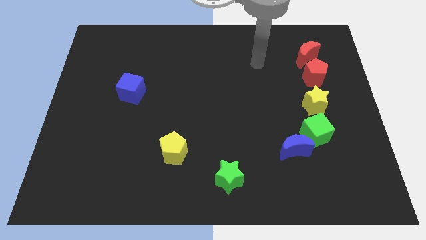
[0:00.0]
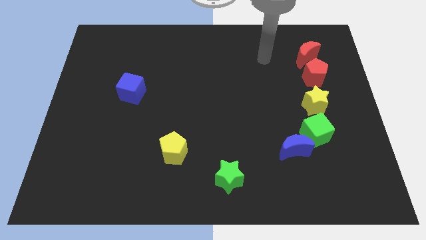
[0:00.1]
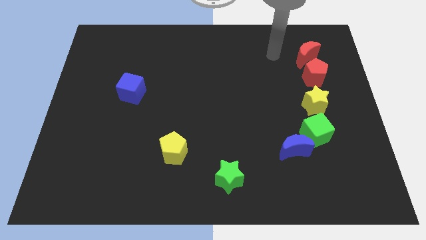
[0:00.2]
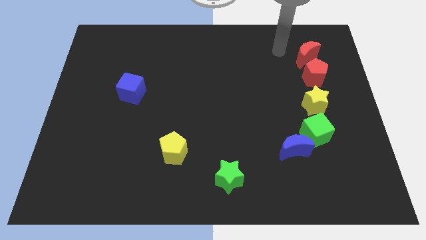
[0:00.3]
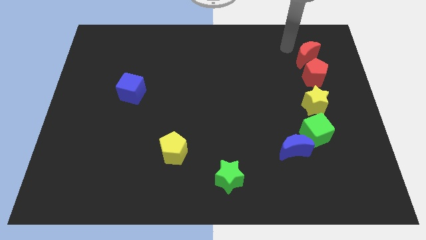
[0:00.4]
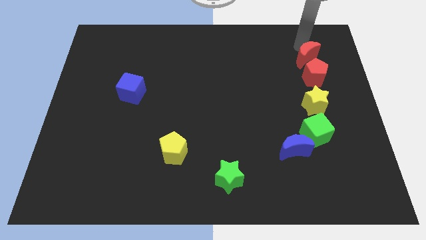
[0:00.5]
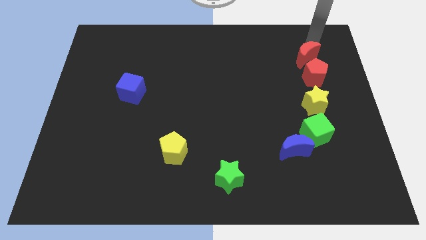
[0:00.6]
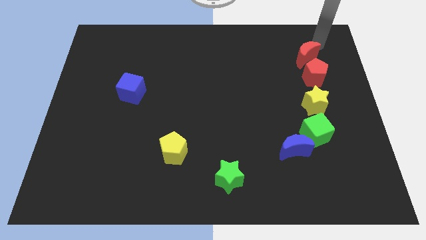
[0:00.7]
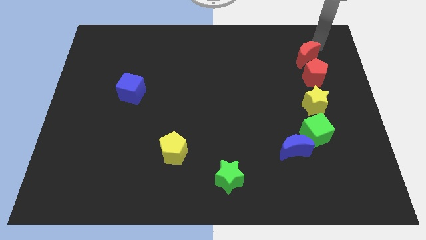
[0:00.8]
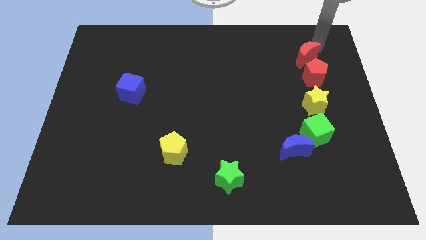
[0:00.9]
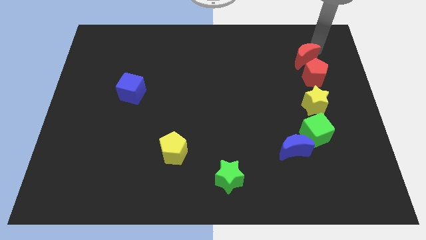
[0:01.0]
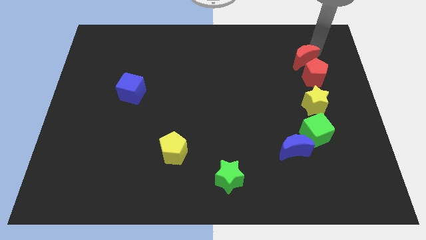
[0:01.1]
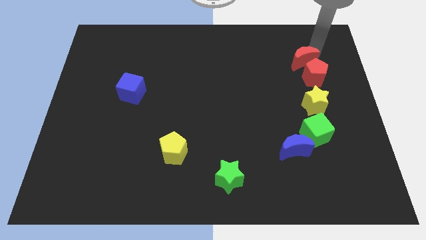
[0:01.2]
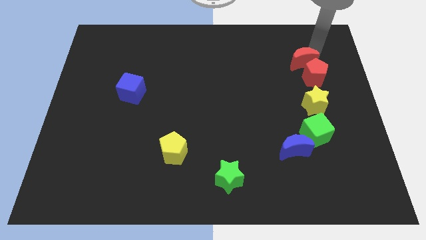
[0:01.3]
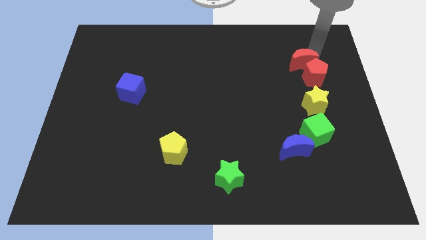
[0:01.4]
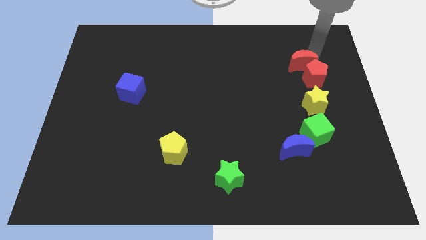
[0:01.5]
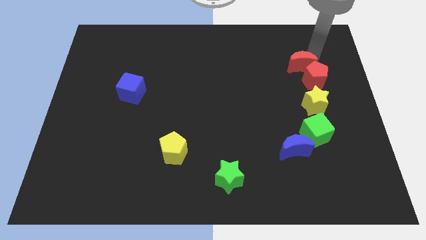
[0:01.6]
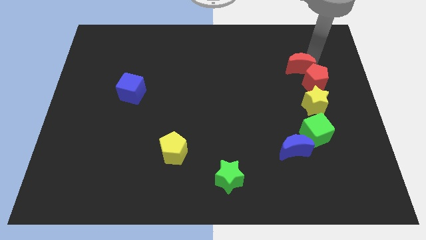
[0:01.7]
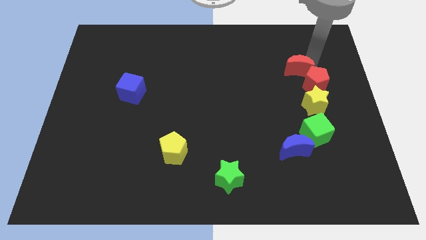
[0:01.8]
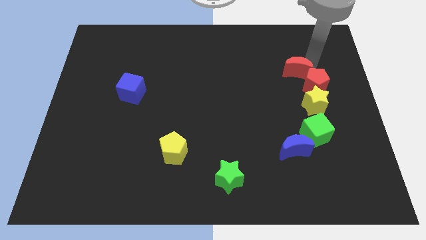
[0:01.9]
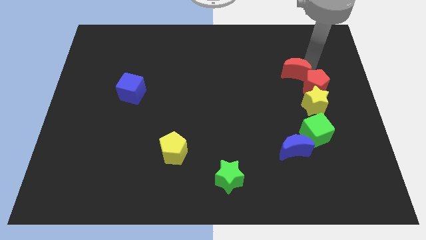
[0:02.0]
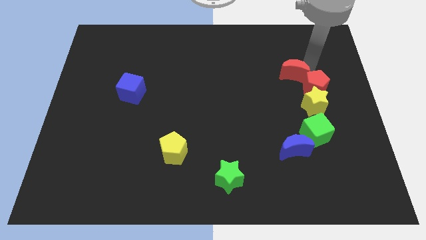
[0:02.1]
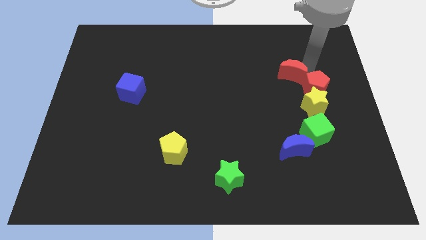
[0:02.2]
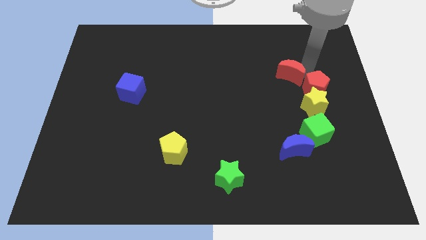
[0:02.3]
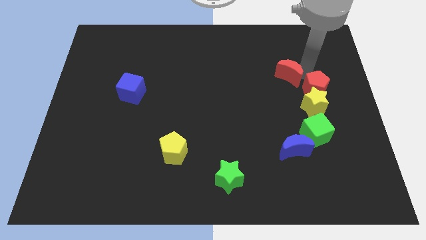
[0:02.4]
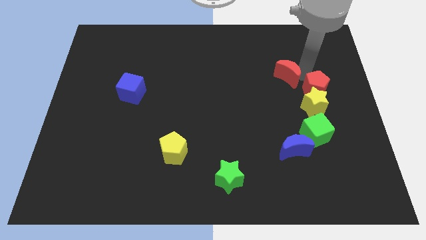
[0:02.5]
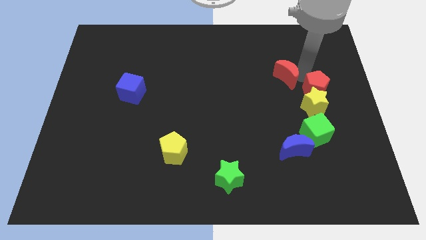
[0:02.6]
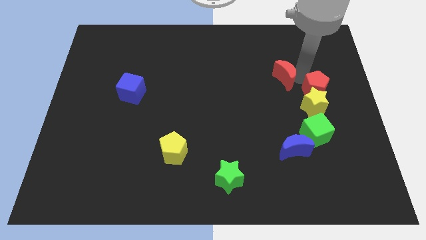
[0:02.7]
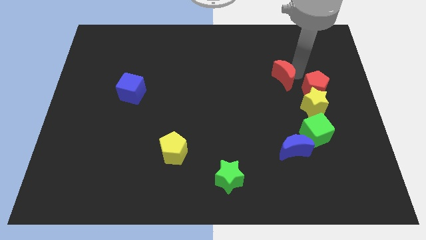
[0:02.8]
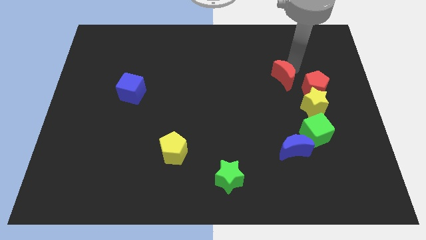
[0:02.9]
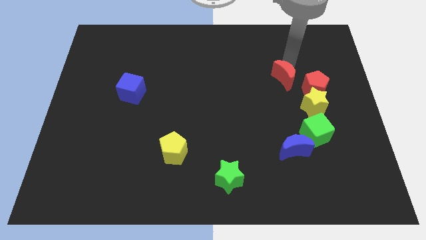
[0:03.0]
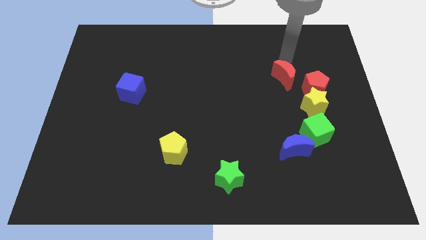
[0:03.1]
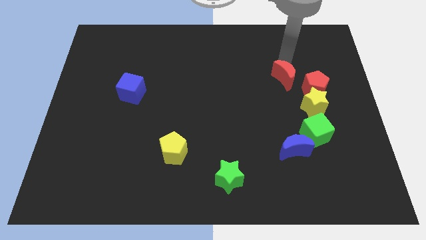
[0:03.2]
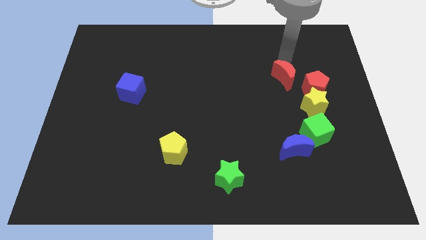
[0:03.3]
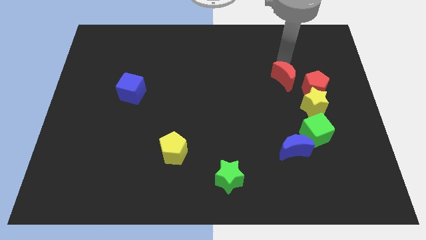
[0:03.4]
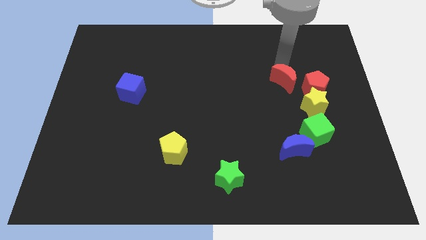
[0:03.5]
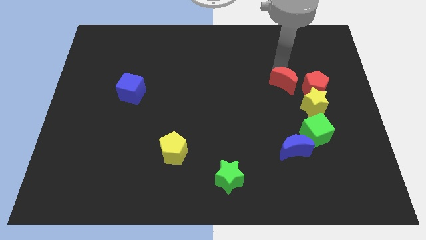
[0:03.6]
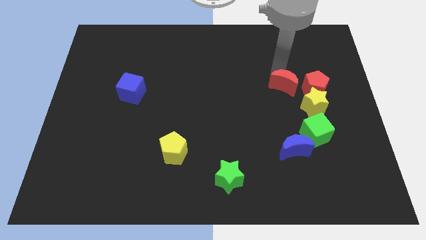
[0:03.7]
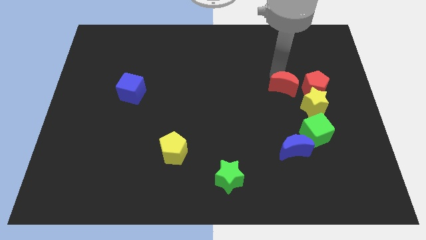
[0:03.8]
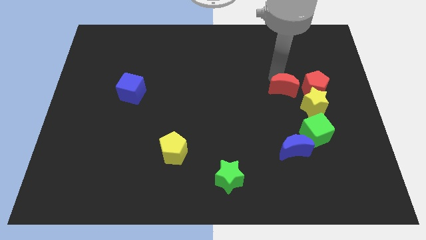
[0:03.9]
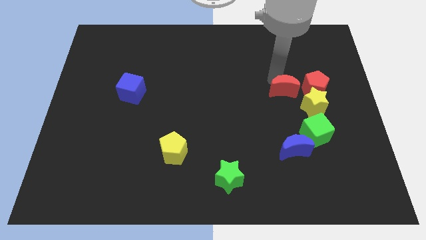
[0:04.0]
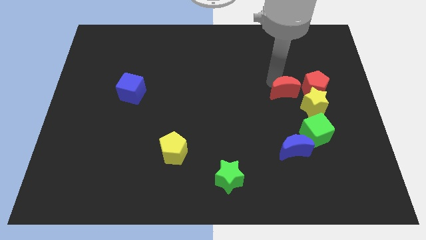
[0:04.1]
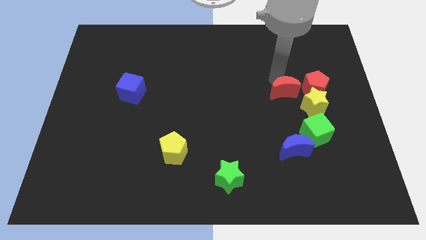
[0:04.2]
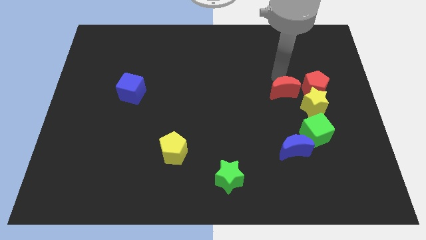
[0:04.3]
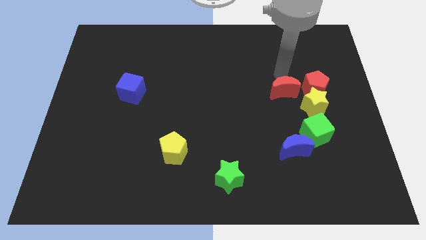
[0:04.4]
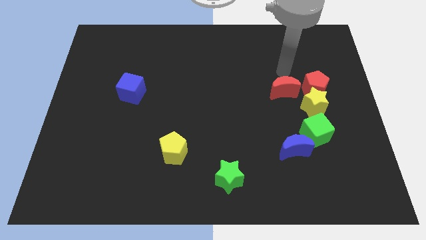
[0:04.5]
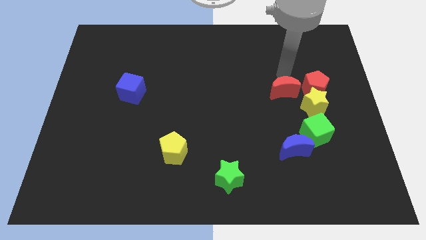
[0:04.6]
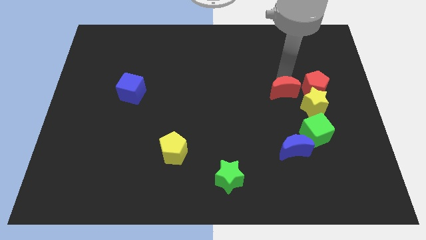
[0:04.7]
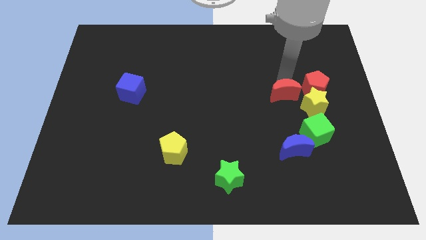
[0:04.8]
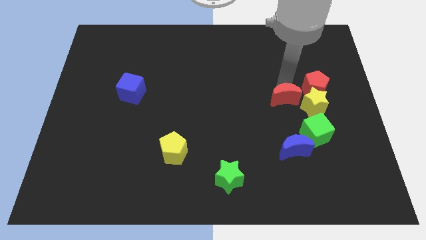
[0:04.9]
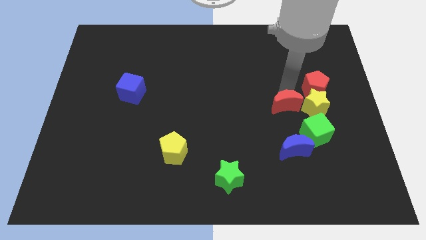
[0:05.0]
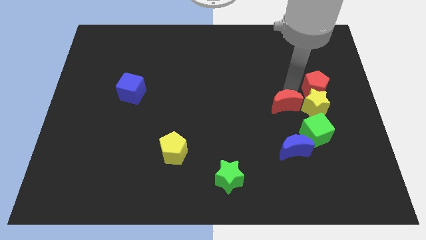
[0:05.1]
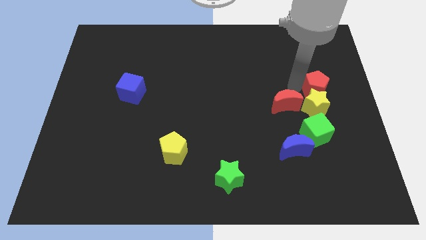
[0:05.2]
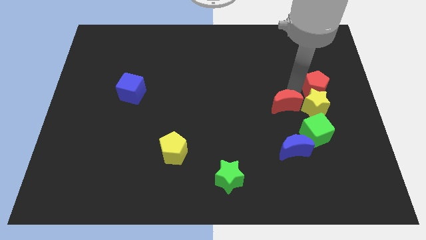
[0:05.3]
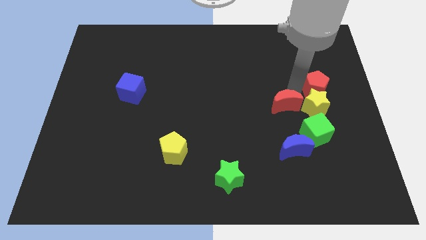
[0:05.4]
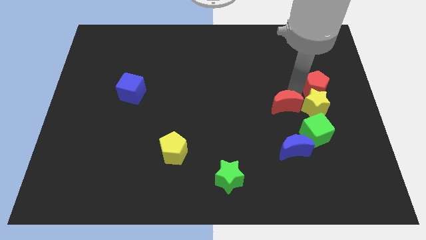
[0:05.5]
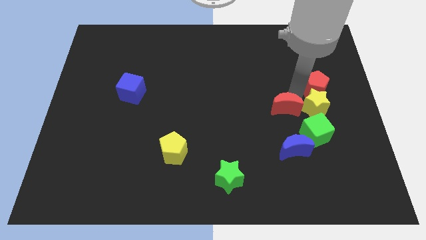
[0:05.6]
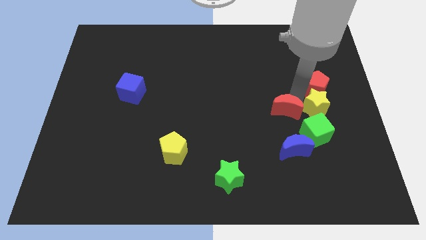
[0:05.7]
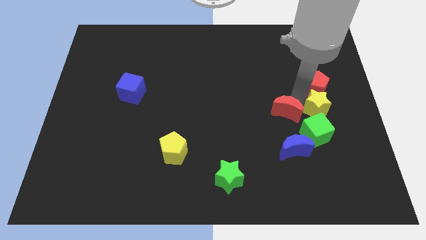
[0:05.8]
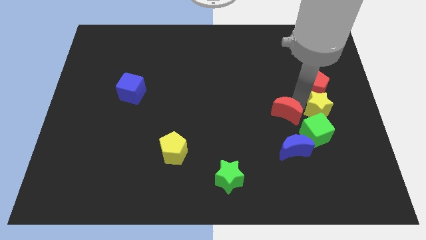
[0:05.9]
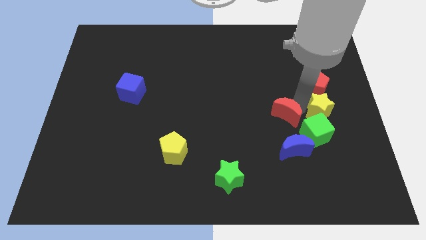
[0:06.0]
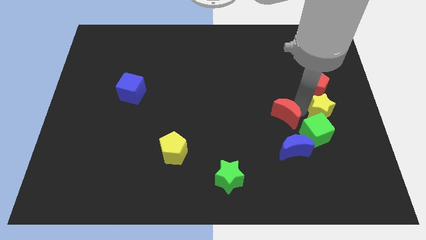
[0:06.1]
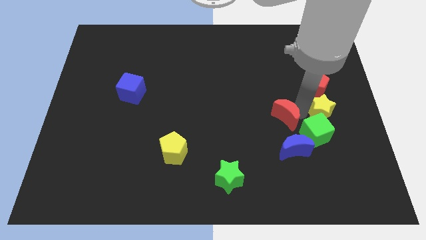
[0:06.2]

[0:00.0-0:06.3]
move the red moon left of the green cube

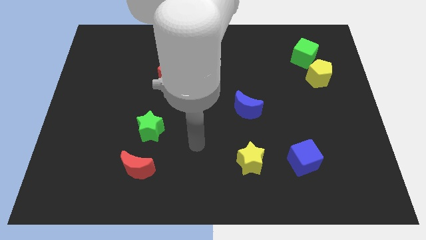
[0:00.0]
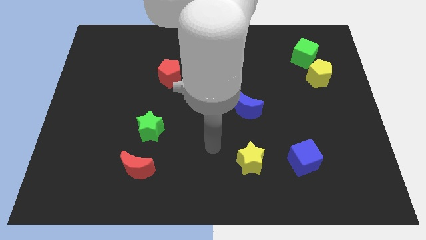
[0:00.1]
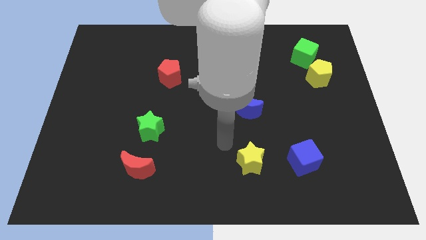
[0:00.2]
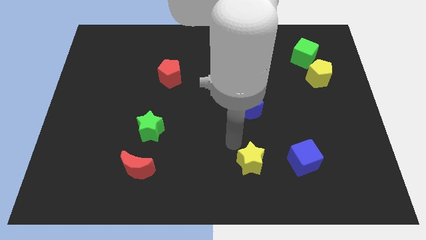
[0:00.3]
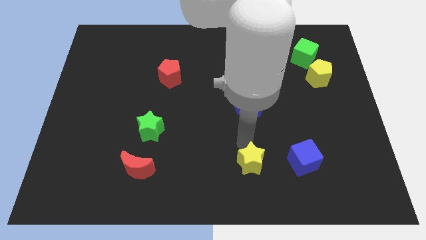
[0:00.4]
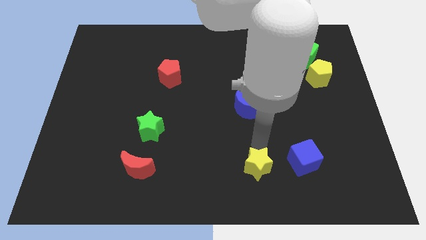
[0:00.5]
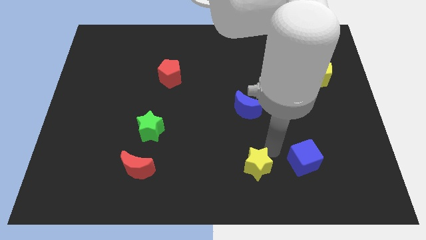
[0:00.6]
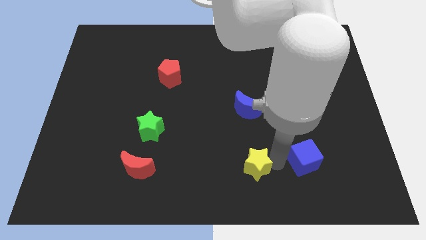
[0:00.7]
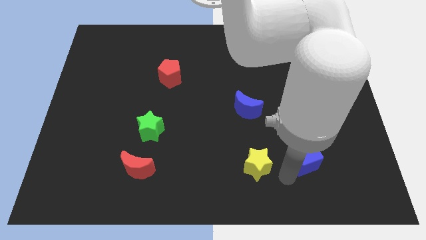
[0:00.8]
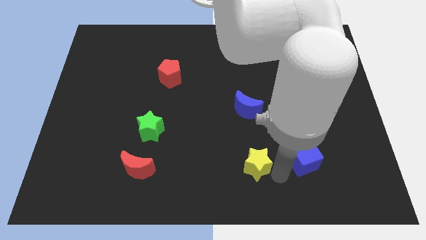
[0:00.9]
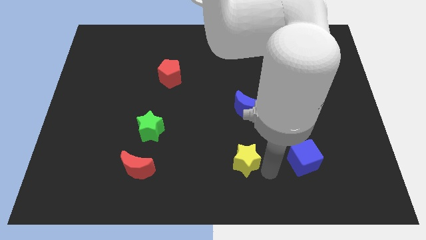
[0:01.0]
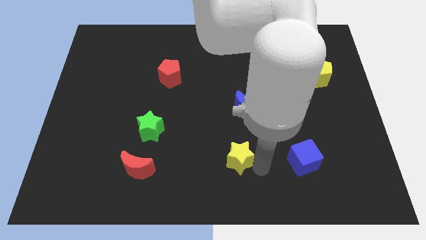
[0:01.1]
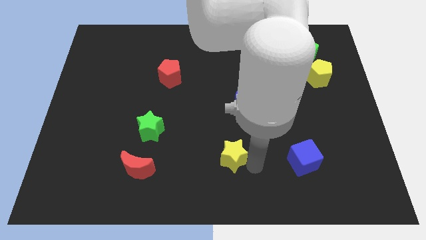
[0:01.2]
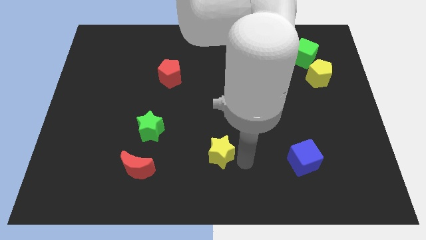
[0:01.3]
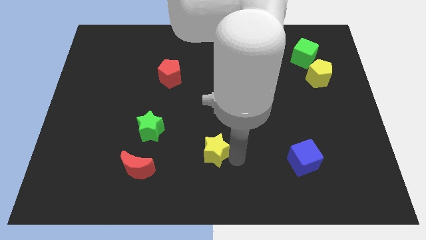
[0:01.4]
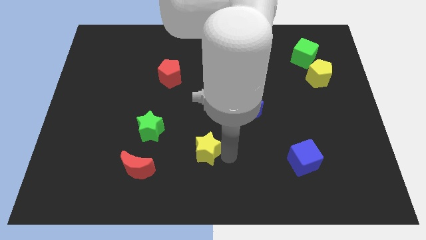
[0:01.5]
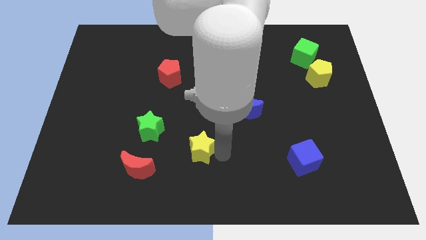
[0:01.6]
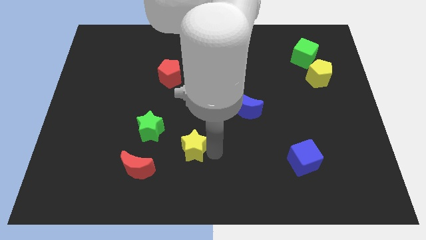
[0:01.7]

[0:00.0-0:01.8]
put the yellow star to the bottom right side of the green star

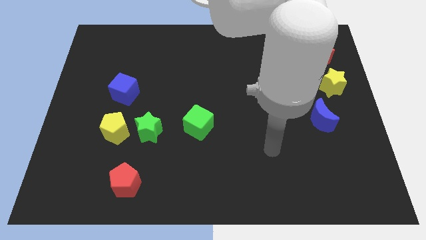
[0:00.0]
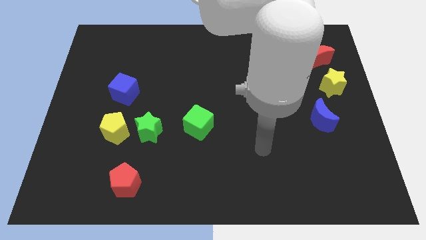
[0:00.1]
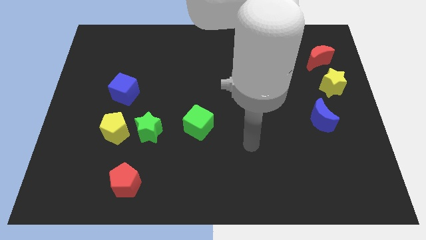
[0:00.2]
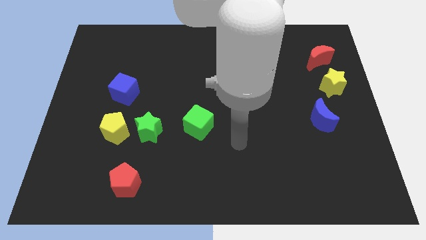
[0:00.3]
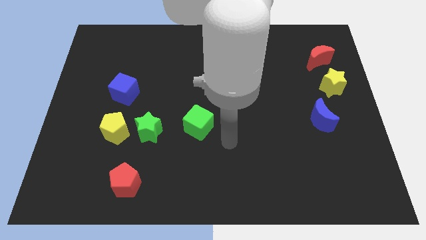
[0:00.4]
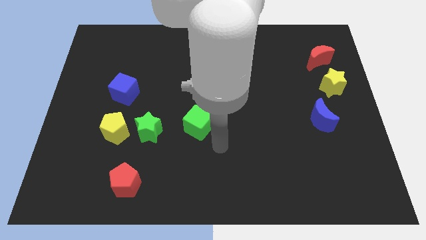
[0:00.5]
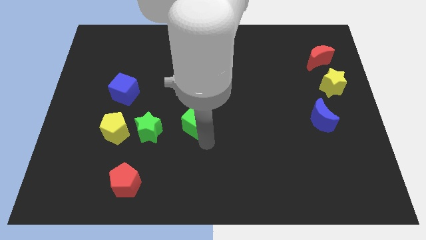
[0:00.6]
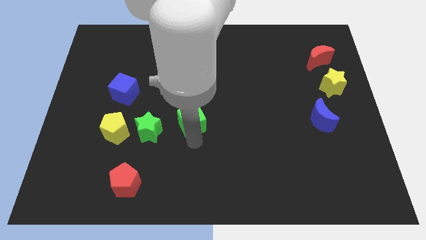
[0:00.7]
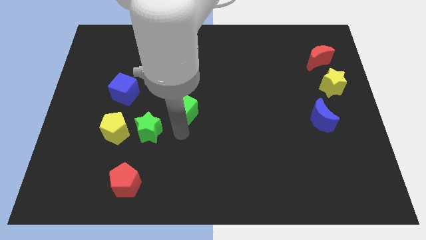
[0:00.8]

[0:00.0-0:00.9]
push the green star diagonally down and to the left of the green cube
